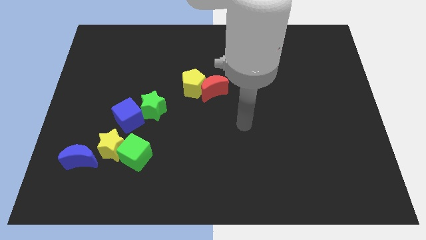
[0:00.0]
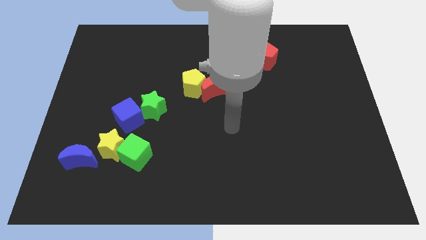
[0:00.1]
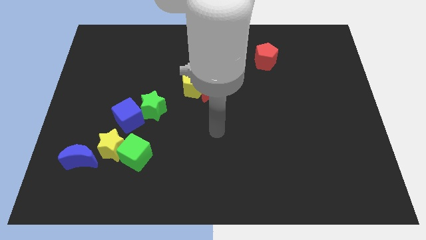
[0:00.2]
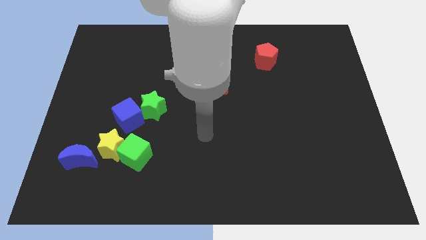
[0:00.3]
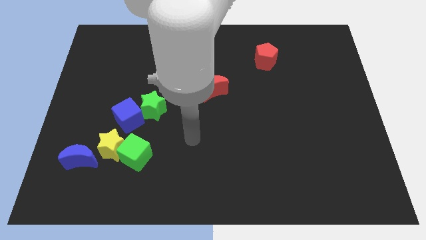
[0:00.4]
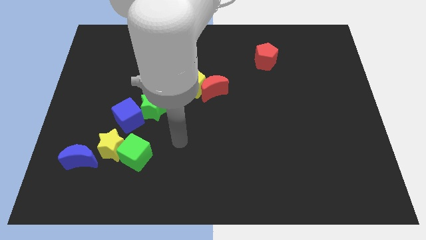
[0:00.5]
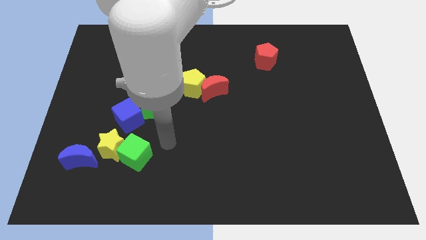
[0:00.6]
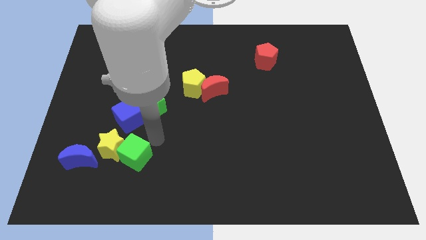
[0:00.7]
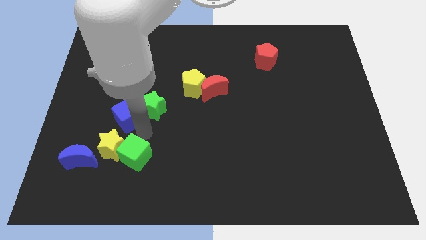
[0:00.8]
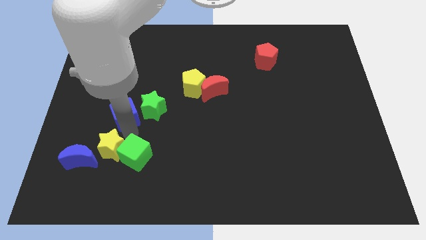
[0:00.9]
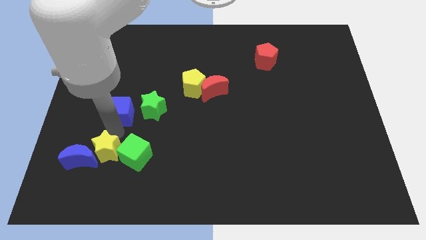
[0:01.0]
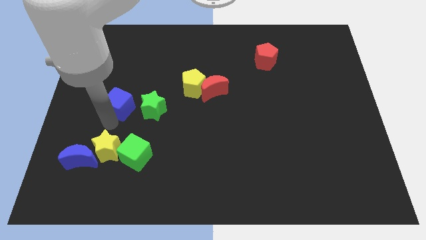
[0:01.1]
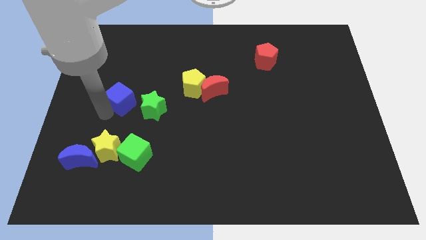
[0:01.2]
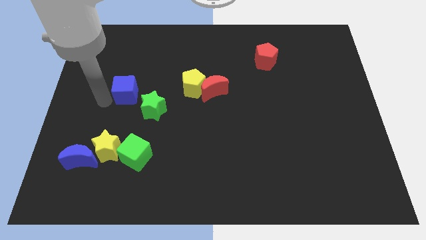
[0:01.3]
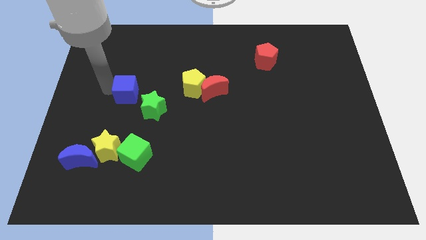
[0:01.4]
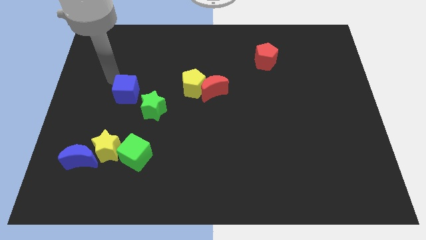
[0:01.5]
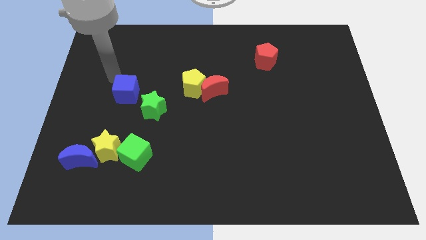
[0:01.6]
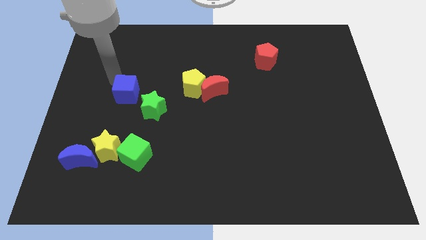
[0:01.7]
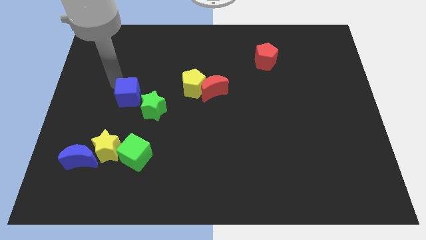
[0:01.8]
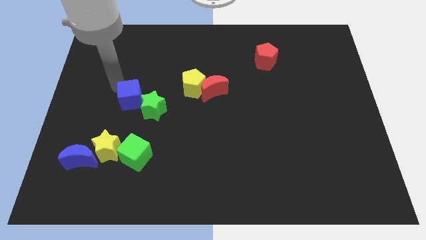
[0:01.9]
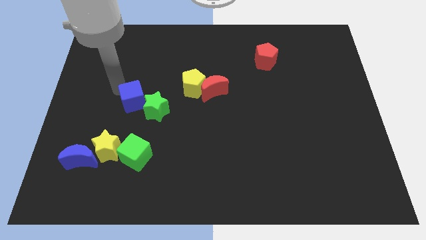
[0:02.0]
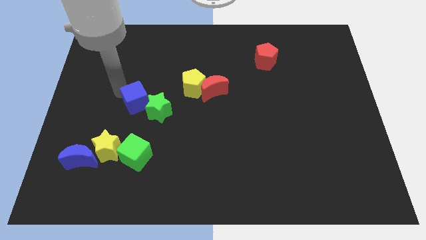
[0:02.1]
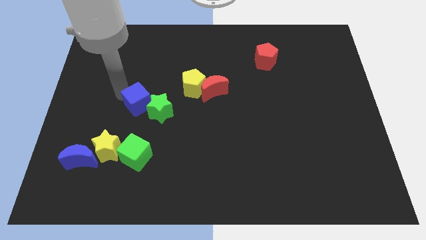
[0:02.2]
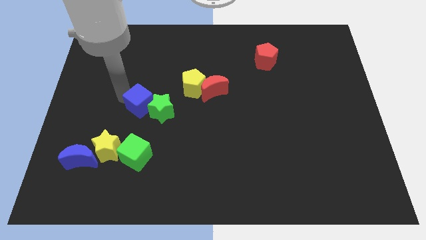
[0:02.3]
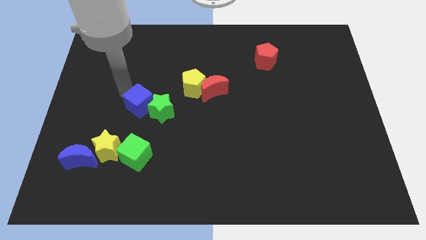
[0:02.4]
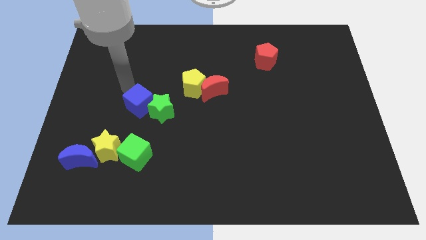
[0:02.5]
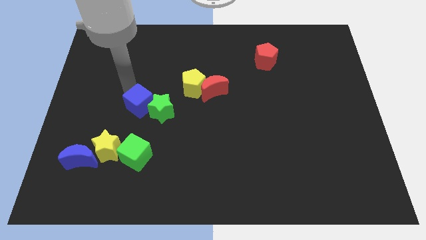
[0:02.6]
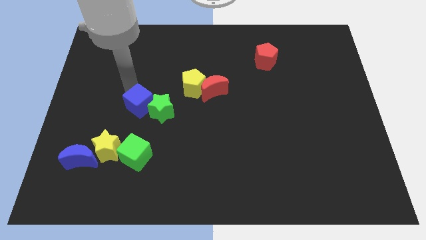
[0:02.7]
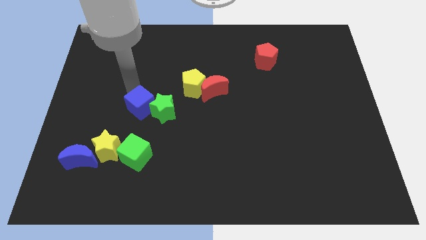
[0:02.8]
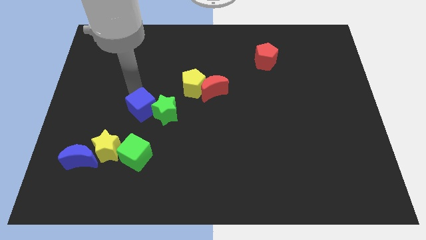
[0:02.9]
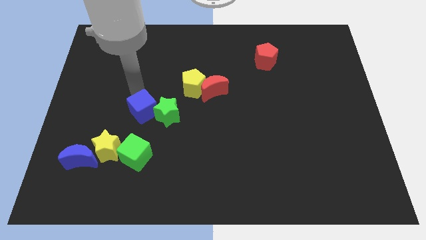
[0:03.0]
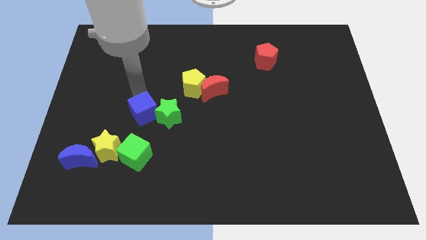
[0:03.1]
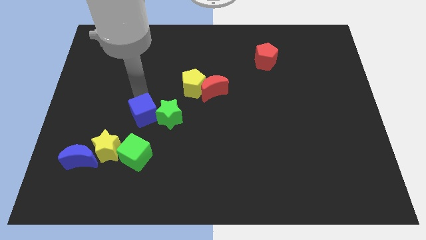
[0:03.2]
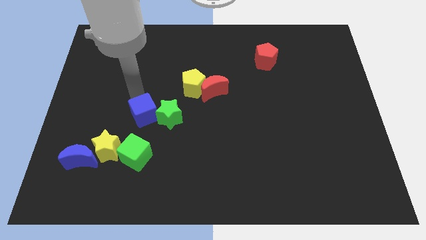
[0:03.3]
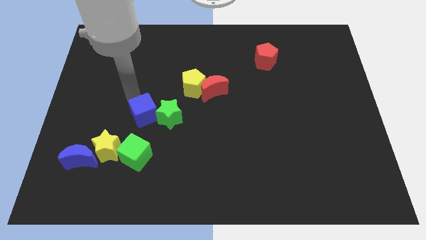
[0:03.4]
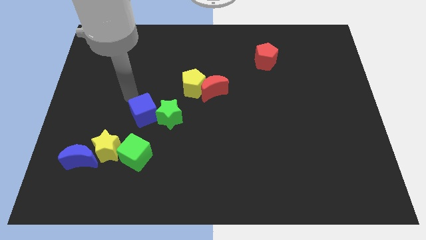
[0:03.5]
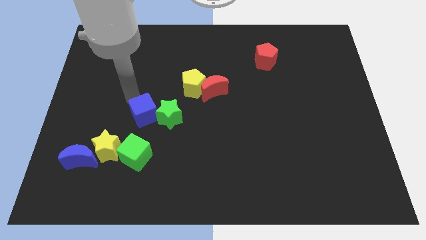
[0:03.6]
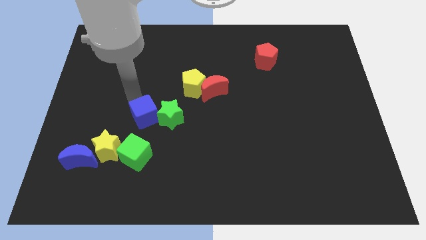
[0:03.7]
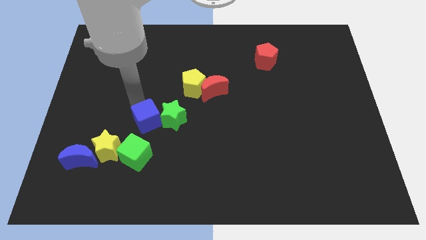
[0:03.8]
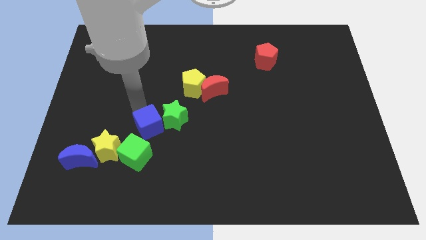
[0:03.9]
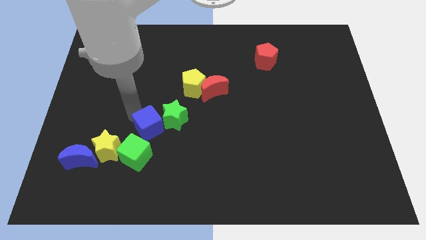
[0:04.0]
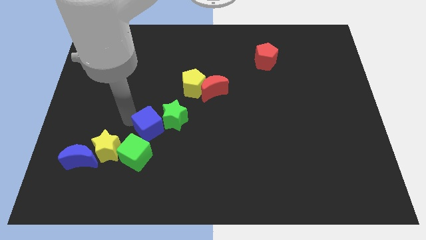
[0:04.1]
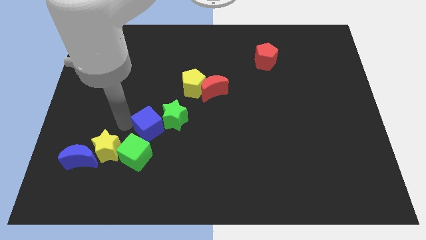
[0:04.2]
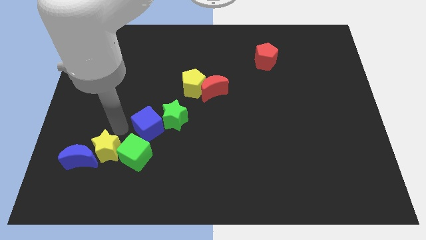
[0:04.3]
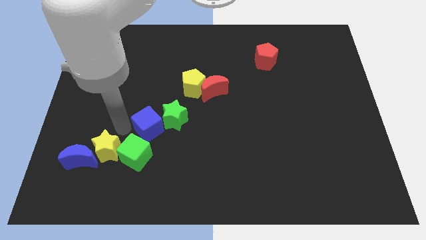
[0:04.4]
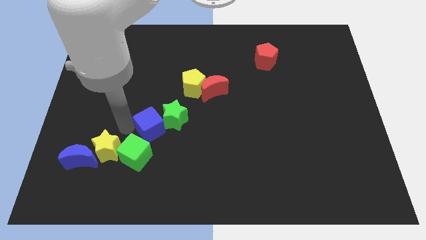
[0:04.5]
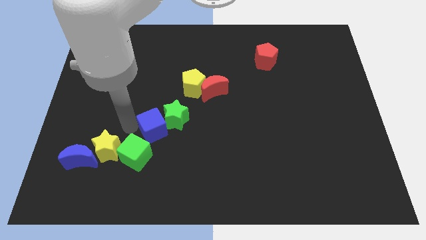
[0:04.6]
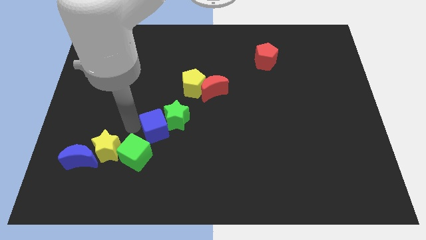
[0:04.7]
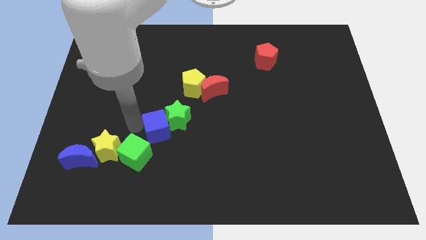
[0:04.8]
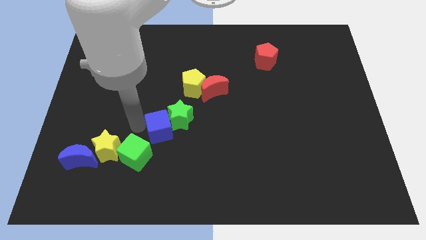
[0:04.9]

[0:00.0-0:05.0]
slightly push the blue cube to the right

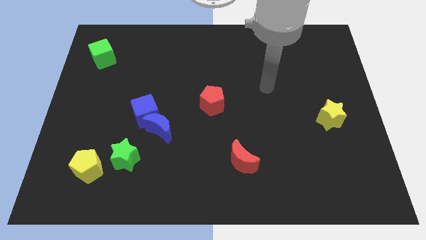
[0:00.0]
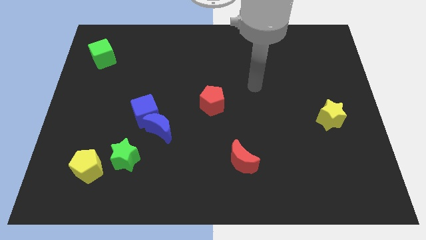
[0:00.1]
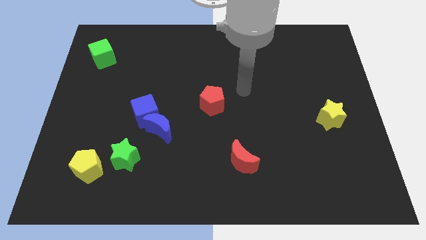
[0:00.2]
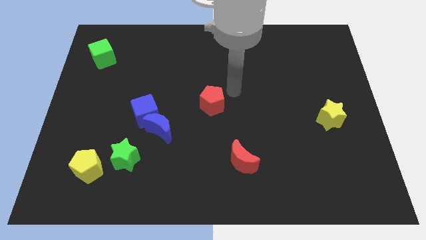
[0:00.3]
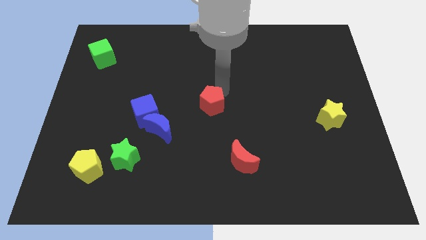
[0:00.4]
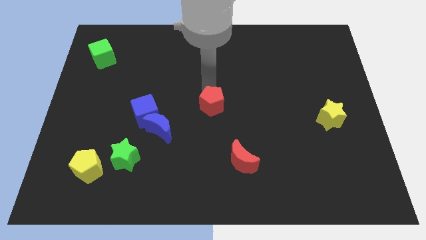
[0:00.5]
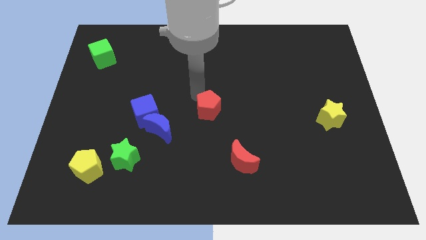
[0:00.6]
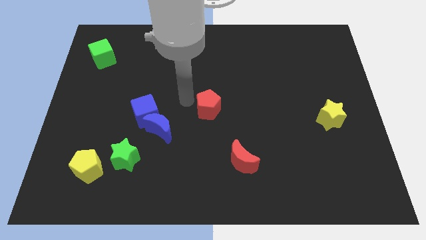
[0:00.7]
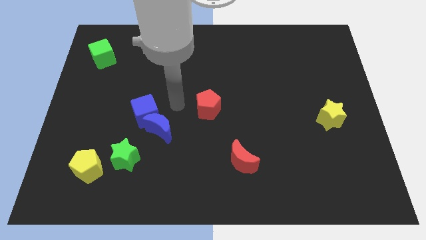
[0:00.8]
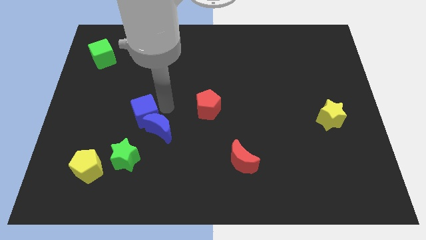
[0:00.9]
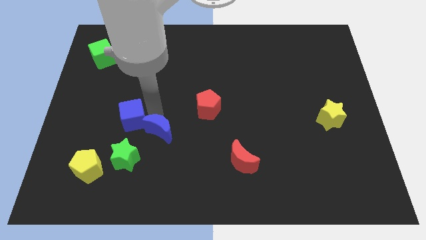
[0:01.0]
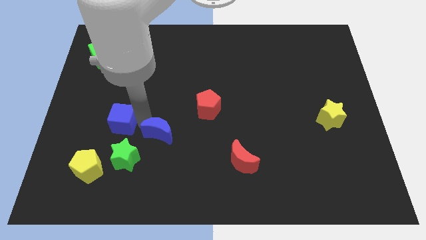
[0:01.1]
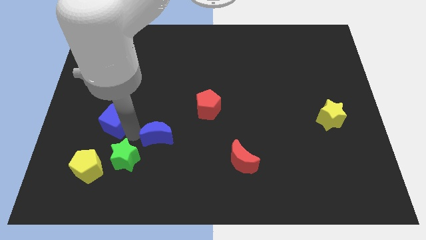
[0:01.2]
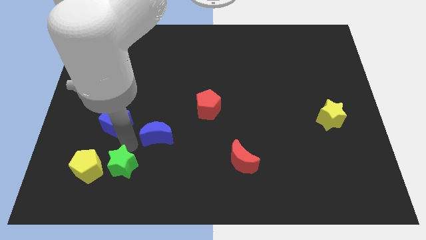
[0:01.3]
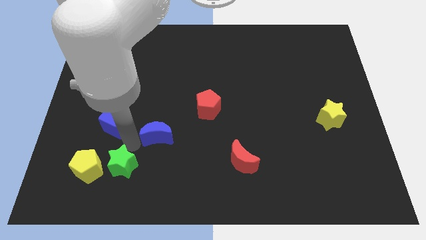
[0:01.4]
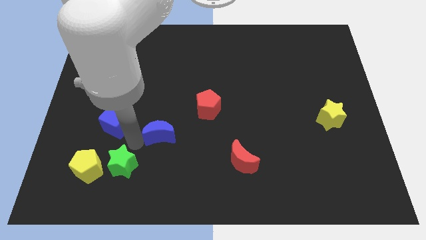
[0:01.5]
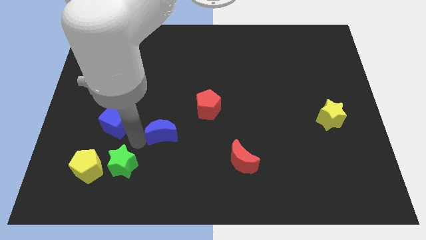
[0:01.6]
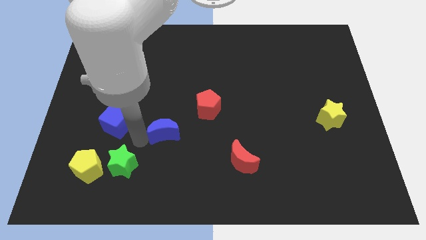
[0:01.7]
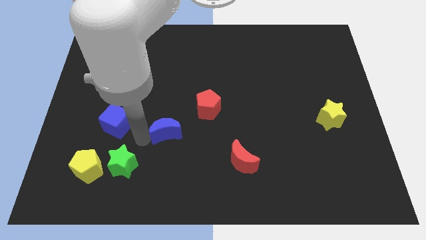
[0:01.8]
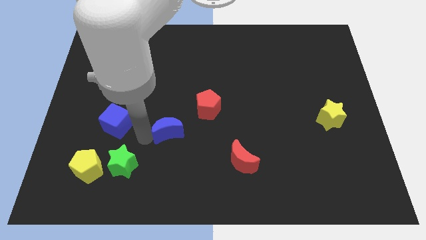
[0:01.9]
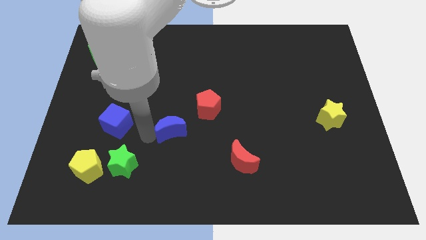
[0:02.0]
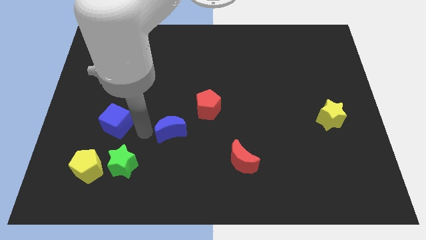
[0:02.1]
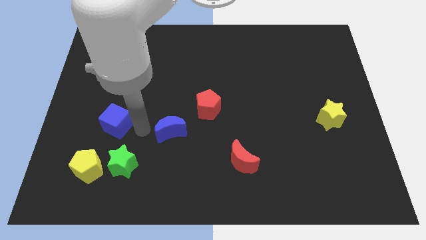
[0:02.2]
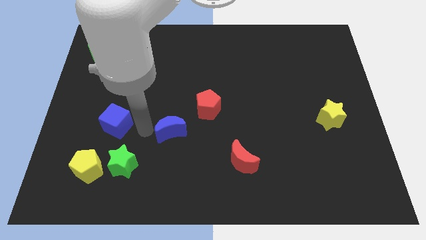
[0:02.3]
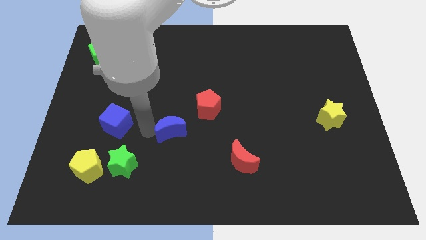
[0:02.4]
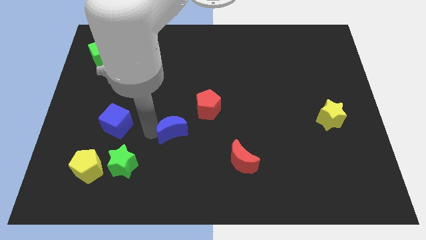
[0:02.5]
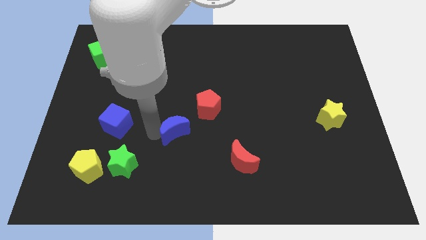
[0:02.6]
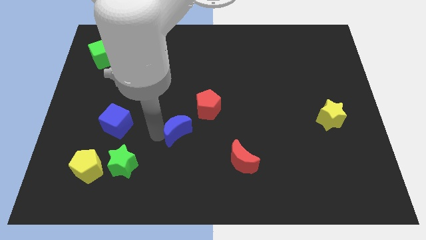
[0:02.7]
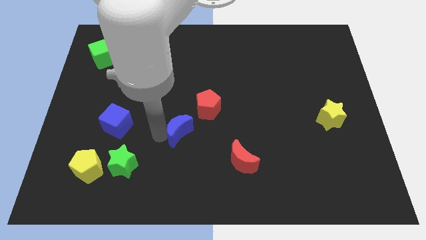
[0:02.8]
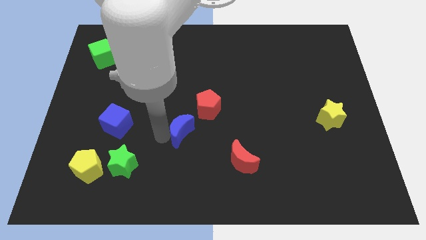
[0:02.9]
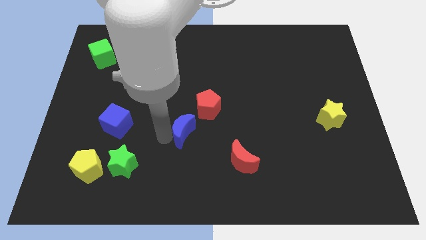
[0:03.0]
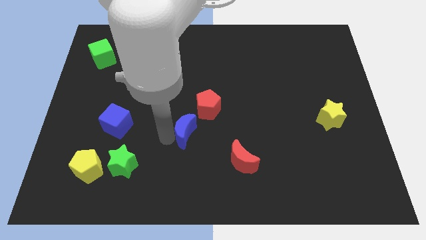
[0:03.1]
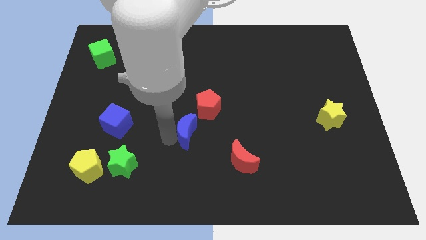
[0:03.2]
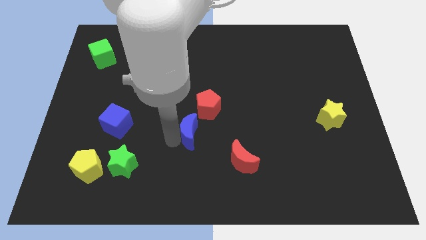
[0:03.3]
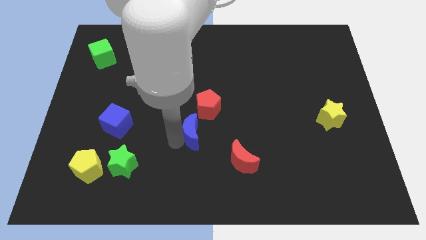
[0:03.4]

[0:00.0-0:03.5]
slightly move the blue moon right
